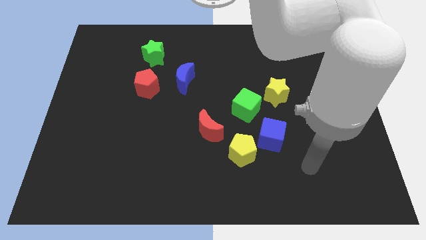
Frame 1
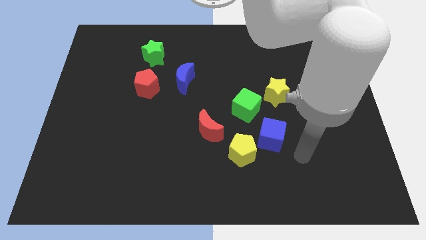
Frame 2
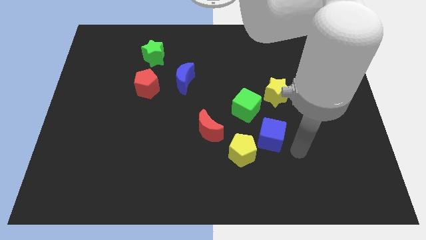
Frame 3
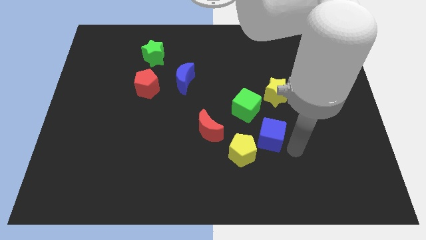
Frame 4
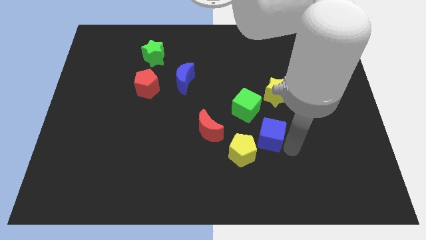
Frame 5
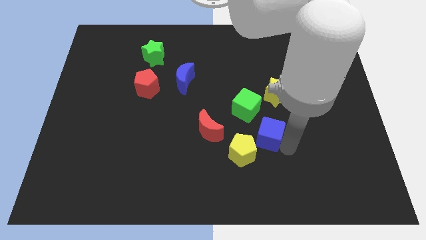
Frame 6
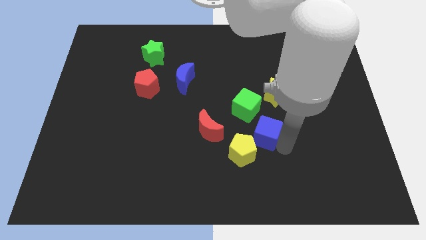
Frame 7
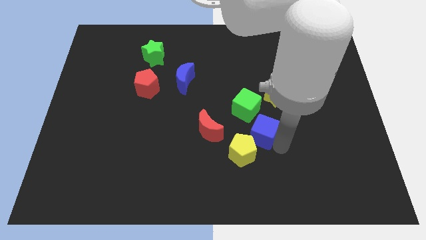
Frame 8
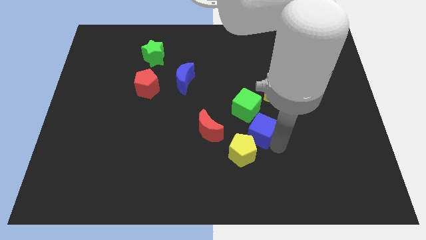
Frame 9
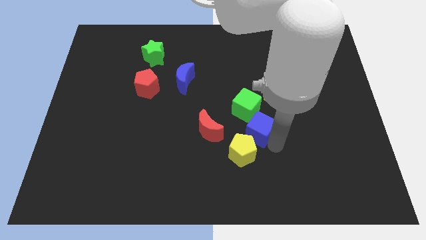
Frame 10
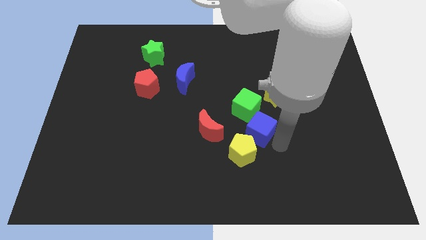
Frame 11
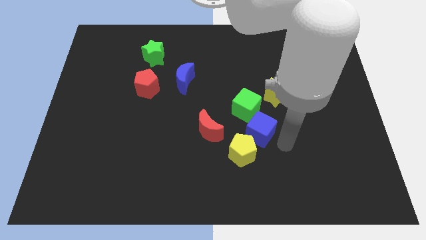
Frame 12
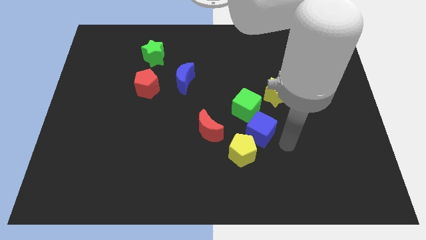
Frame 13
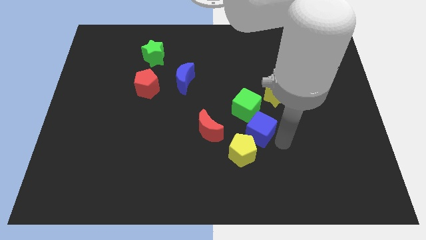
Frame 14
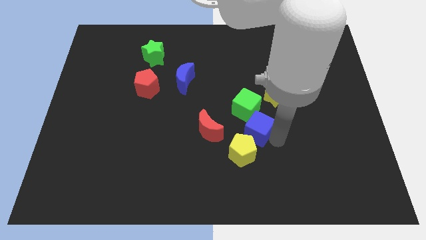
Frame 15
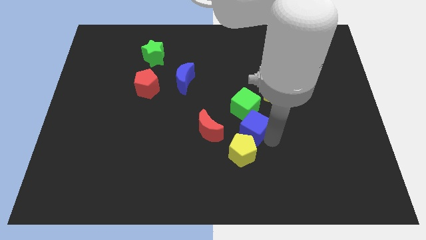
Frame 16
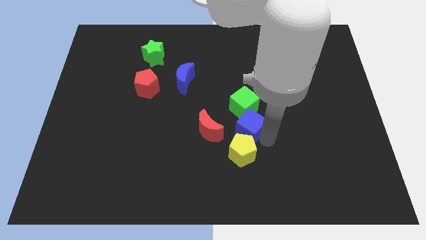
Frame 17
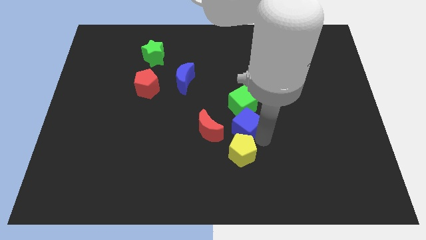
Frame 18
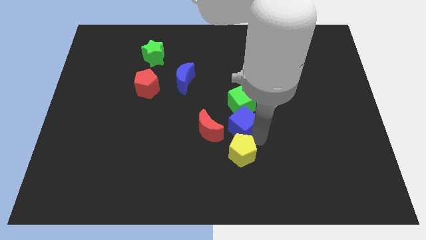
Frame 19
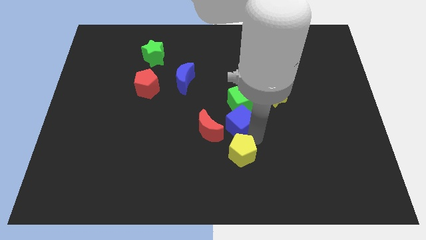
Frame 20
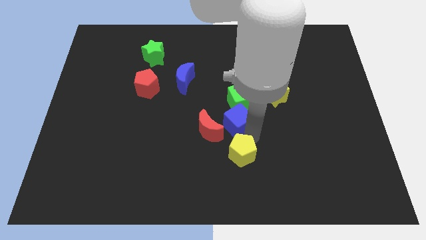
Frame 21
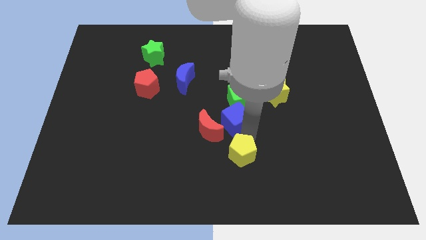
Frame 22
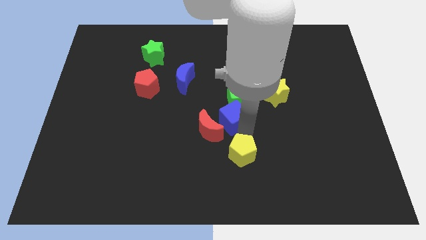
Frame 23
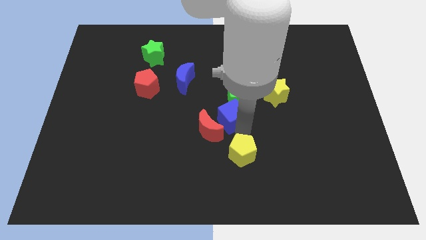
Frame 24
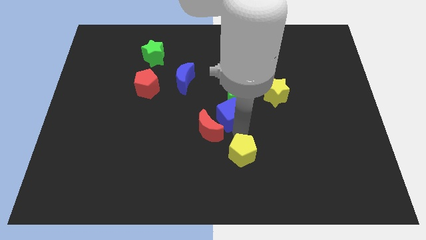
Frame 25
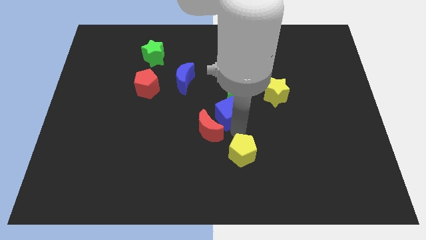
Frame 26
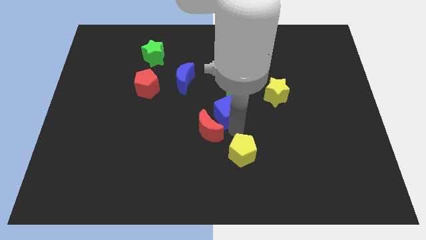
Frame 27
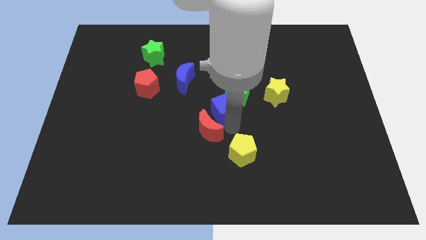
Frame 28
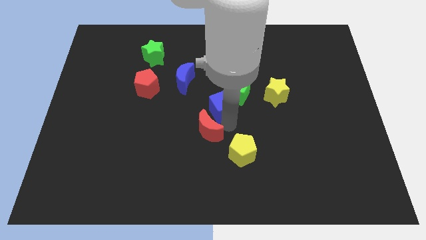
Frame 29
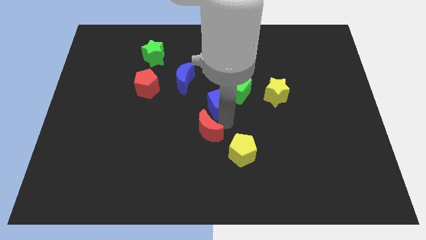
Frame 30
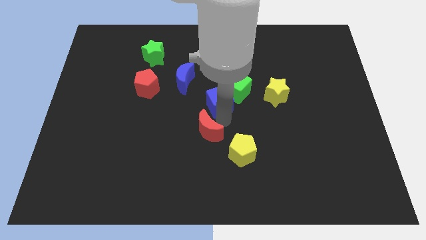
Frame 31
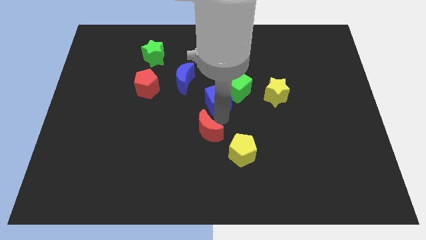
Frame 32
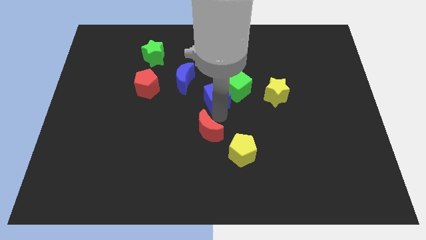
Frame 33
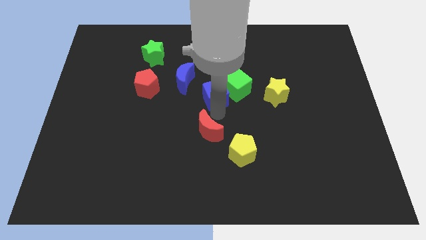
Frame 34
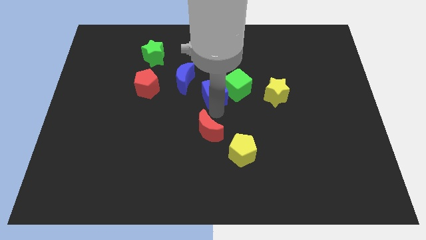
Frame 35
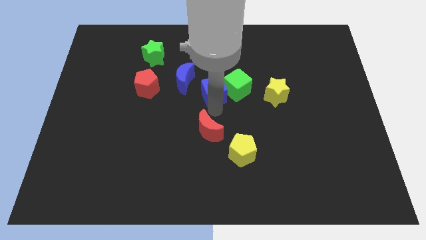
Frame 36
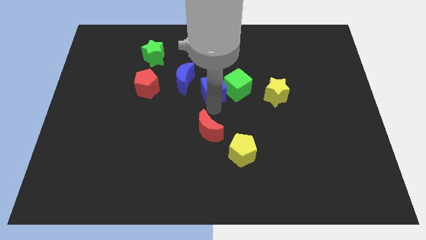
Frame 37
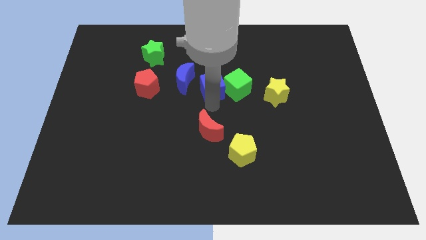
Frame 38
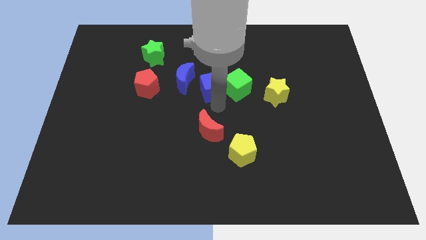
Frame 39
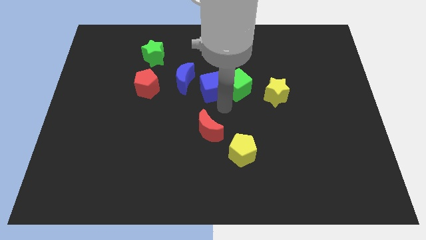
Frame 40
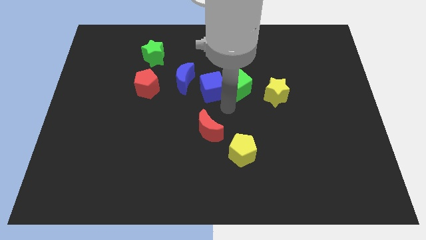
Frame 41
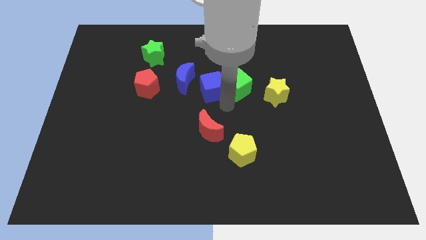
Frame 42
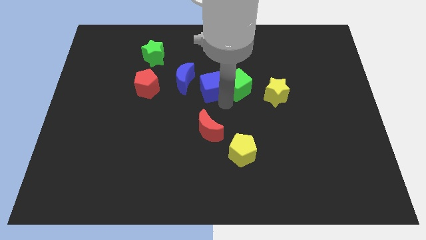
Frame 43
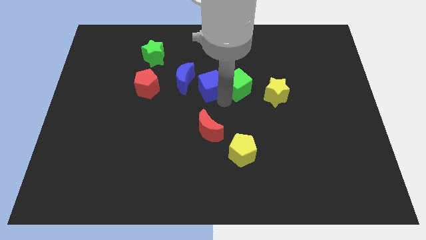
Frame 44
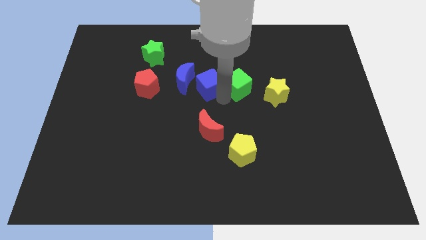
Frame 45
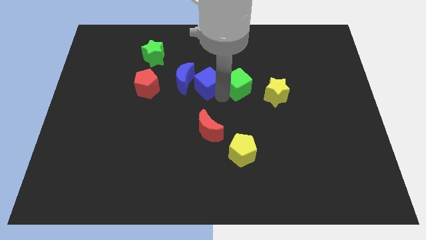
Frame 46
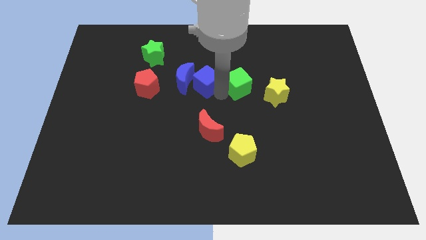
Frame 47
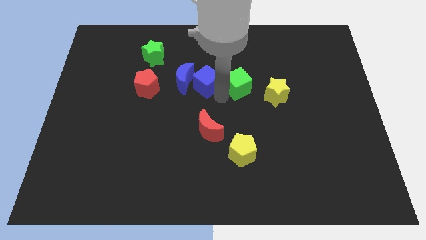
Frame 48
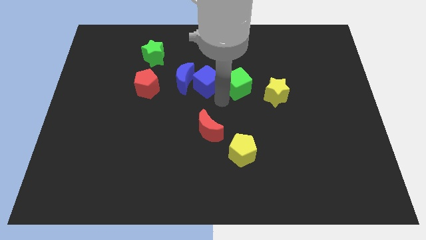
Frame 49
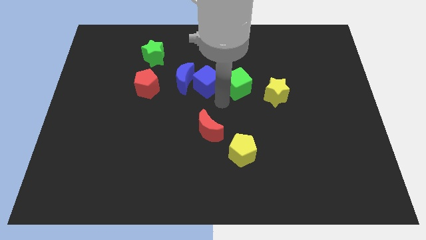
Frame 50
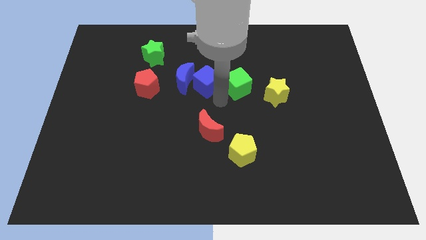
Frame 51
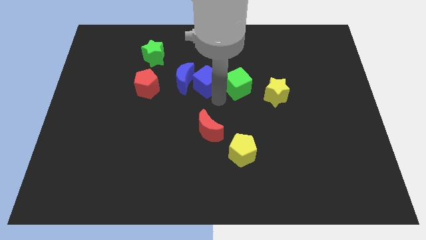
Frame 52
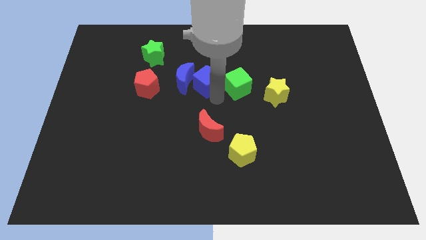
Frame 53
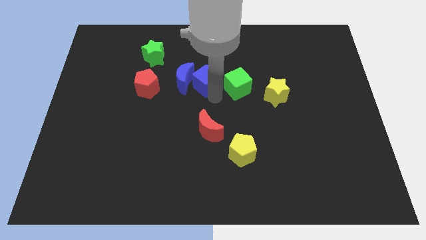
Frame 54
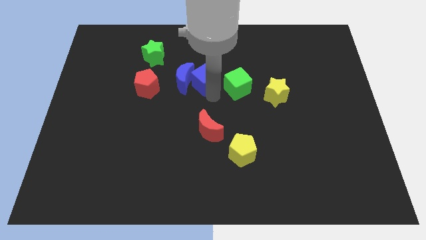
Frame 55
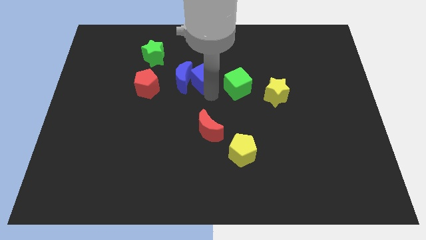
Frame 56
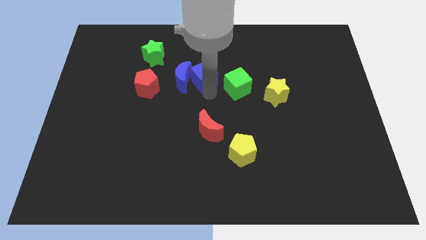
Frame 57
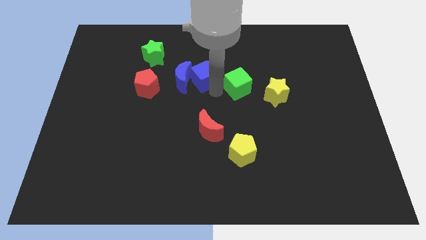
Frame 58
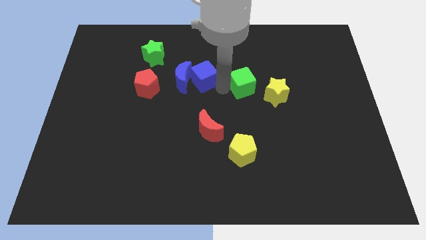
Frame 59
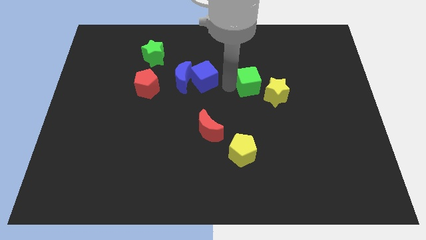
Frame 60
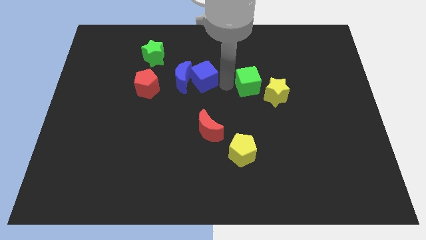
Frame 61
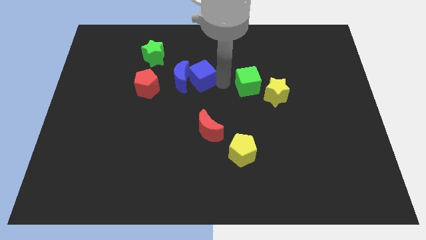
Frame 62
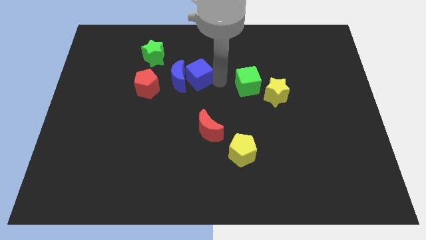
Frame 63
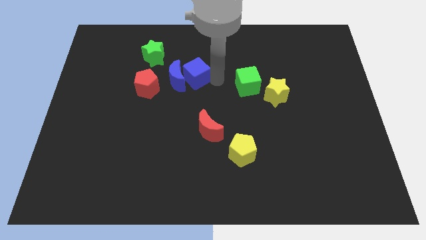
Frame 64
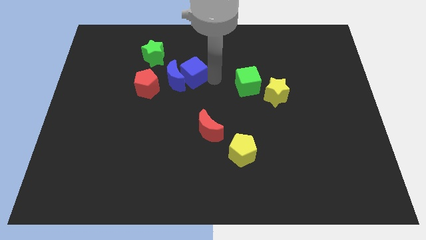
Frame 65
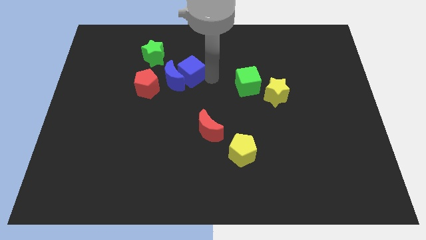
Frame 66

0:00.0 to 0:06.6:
move the blue cube diagonally up and to the right of the red pentagon
